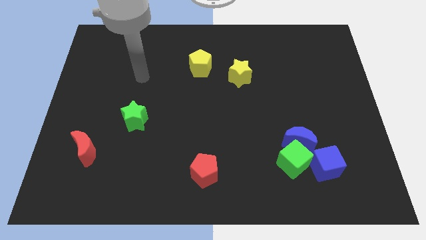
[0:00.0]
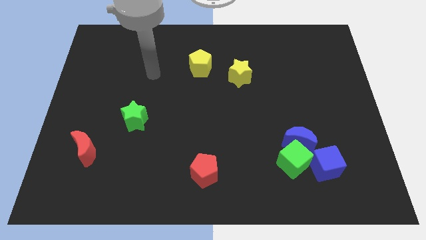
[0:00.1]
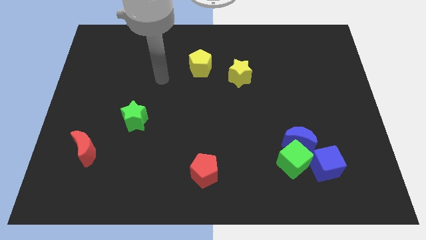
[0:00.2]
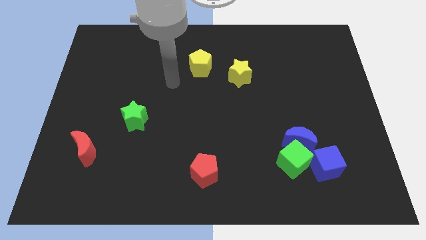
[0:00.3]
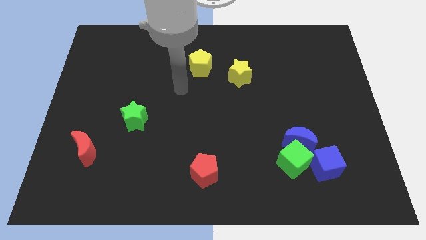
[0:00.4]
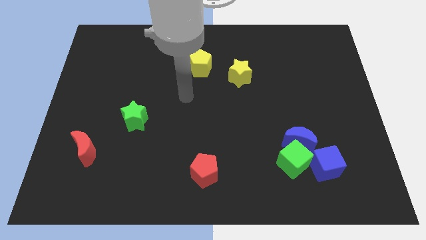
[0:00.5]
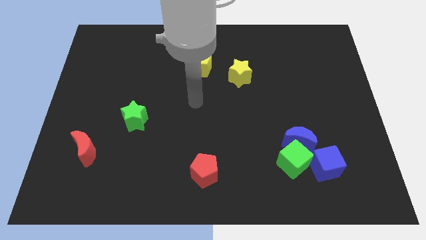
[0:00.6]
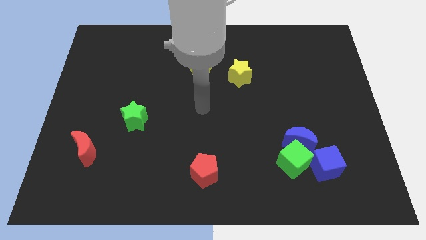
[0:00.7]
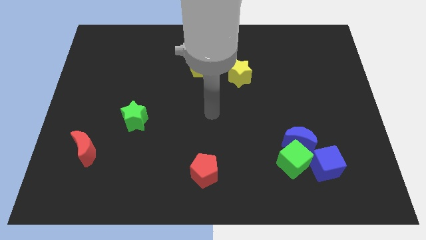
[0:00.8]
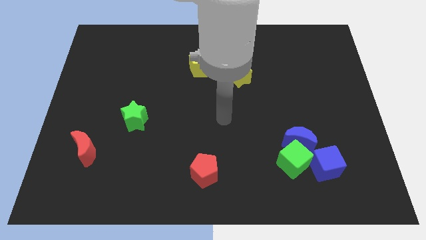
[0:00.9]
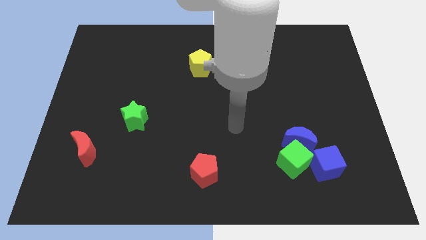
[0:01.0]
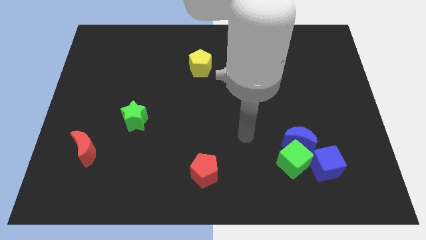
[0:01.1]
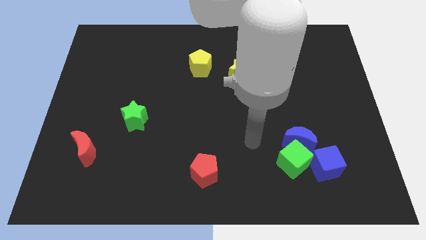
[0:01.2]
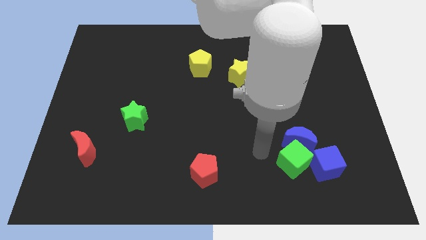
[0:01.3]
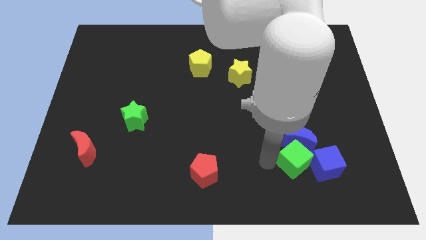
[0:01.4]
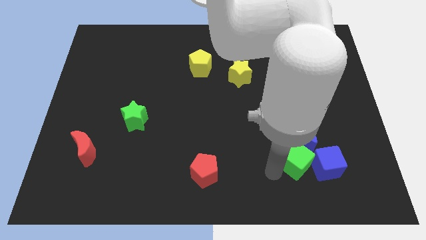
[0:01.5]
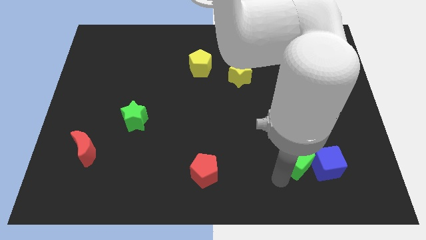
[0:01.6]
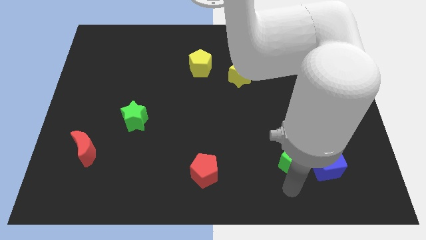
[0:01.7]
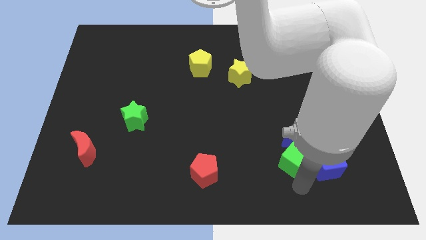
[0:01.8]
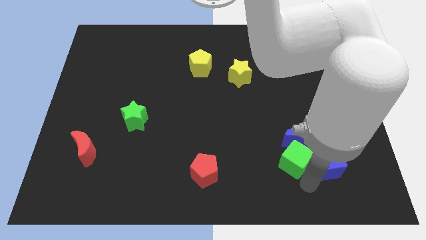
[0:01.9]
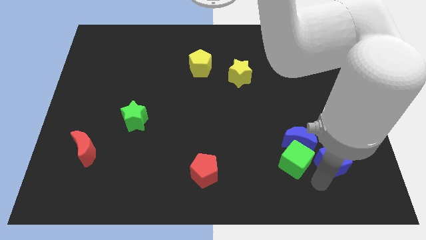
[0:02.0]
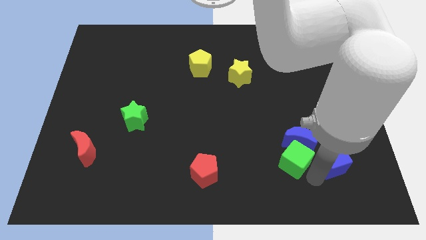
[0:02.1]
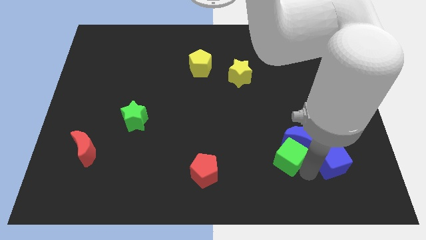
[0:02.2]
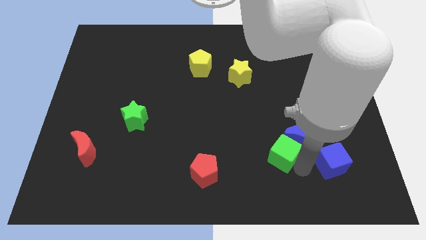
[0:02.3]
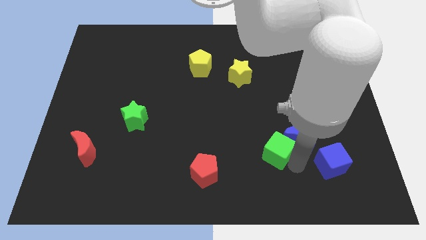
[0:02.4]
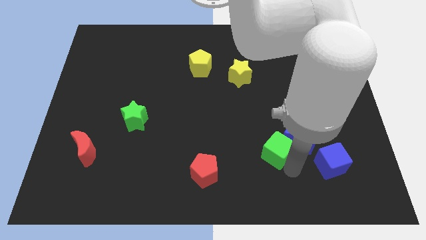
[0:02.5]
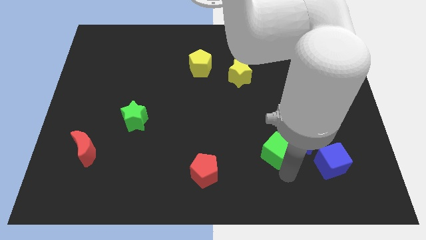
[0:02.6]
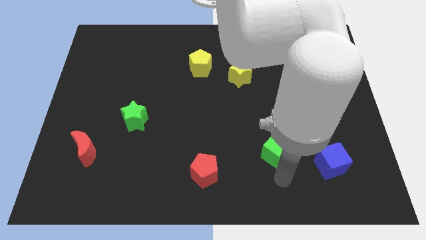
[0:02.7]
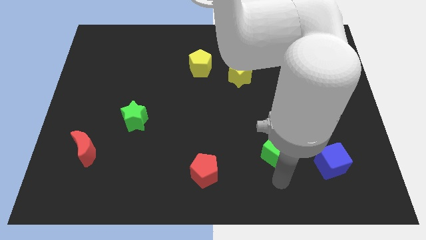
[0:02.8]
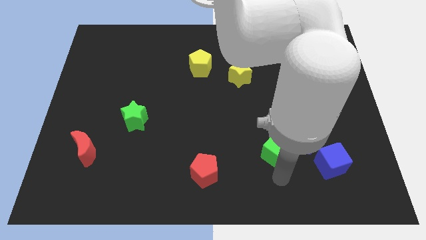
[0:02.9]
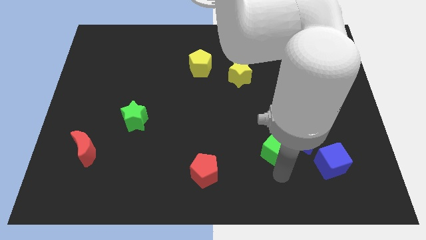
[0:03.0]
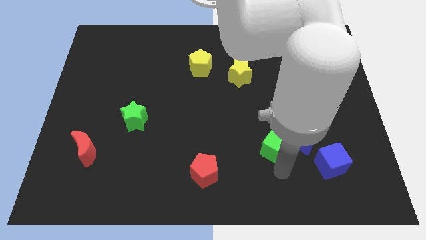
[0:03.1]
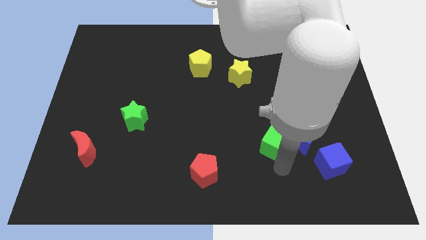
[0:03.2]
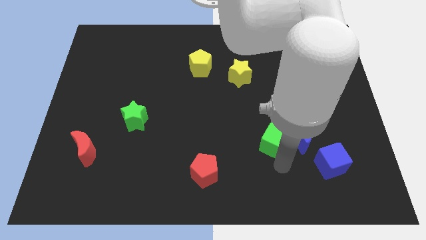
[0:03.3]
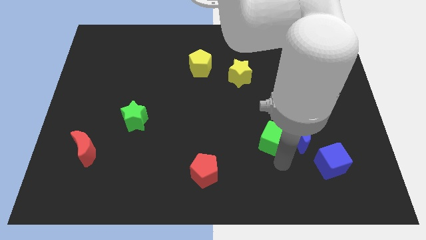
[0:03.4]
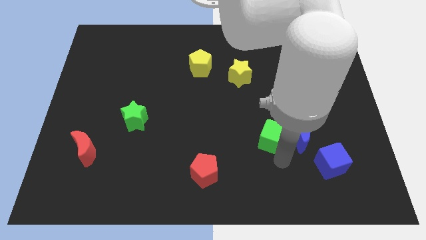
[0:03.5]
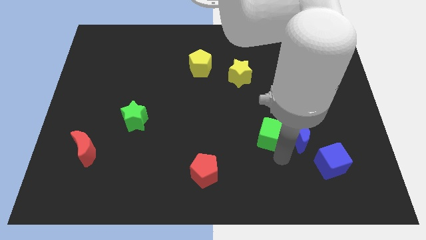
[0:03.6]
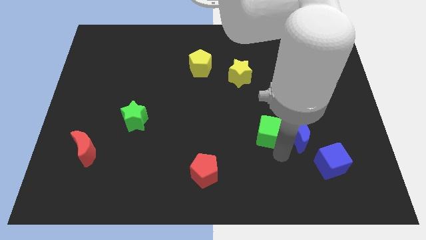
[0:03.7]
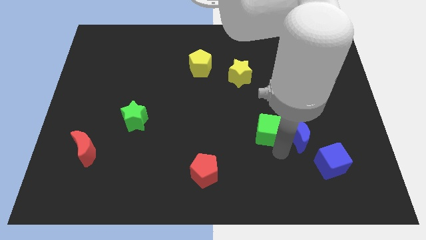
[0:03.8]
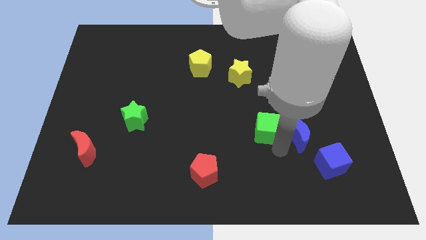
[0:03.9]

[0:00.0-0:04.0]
push the green cube somewhat upwards

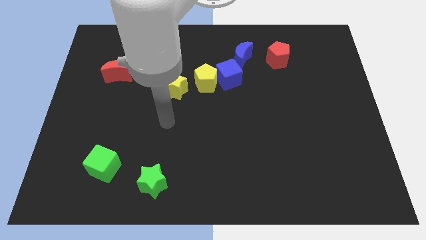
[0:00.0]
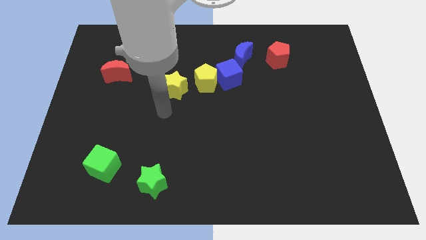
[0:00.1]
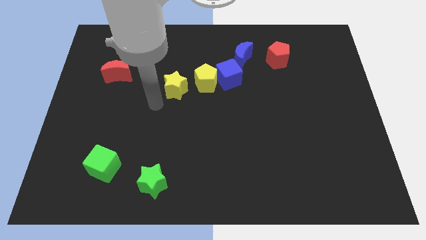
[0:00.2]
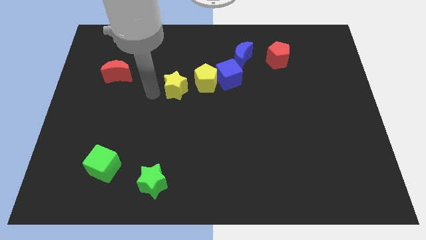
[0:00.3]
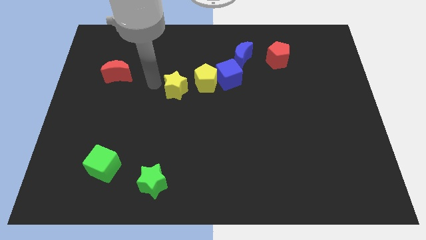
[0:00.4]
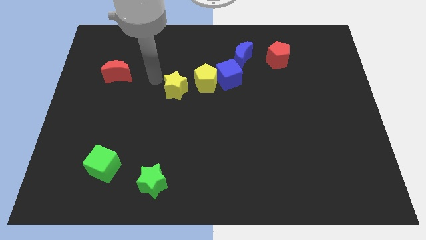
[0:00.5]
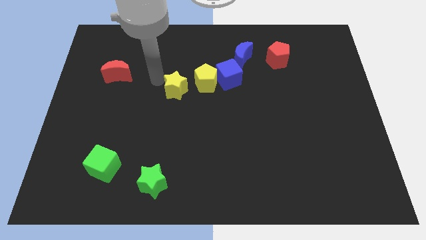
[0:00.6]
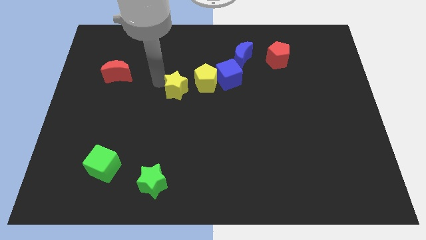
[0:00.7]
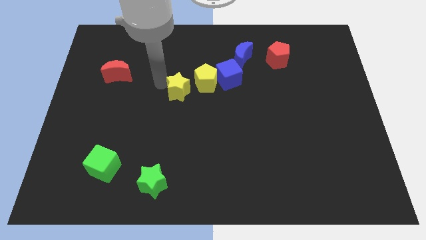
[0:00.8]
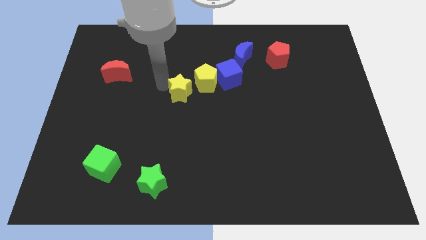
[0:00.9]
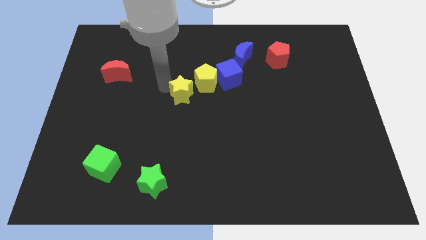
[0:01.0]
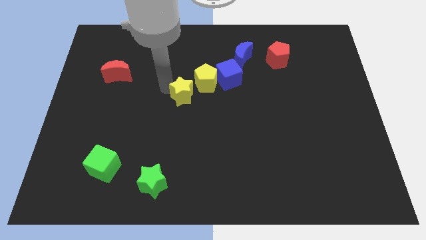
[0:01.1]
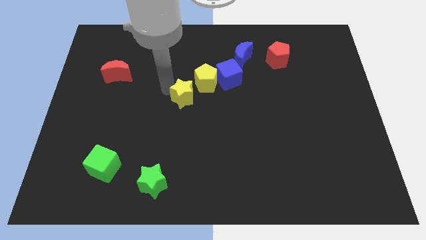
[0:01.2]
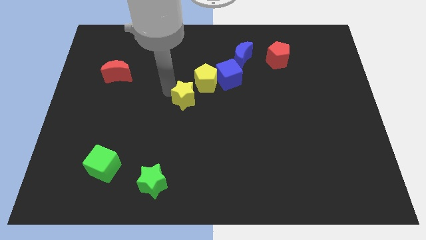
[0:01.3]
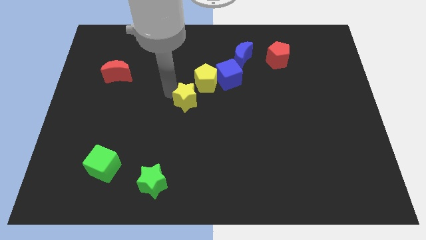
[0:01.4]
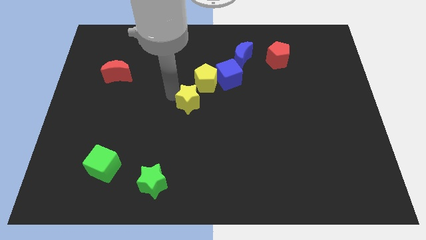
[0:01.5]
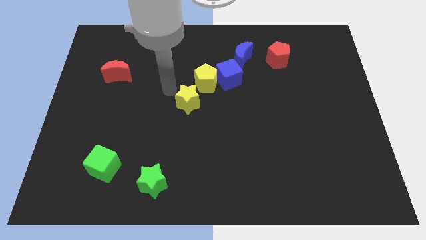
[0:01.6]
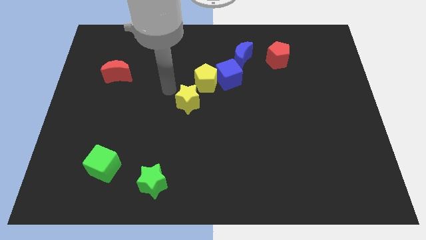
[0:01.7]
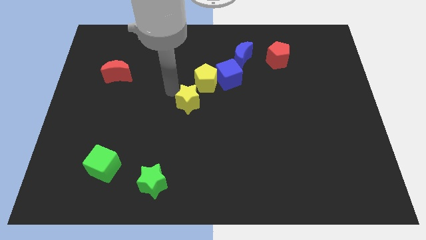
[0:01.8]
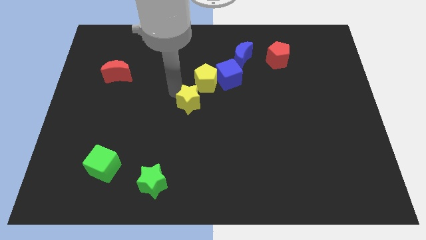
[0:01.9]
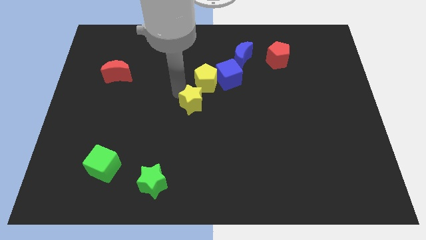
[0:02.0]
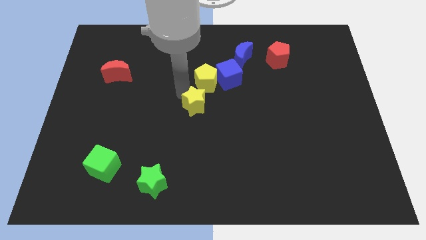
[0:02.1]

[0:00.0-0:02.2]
slide the yellow star a bit diagonally downwards and to the right

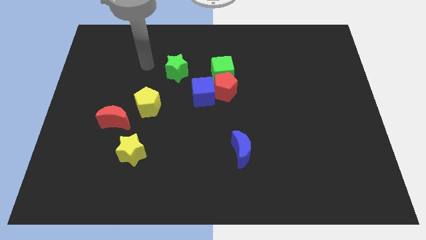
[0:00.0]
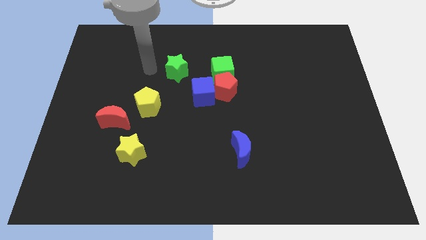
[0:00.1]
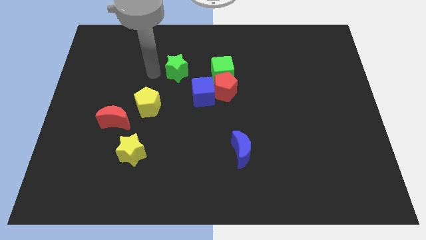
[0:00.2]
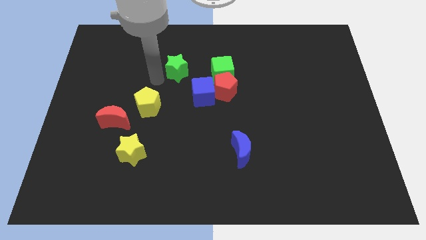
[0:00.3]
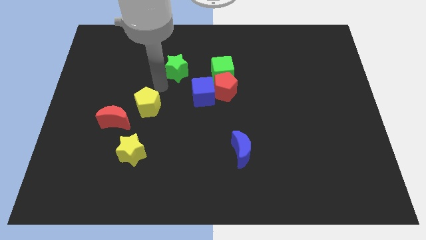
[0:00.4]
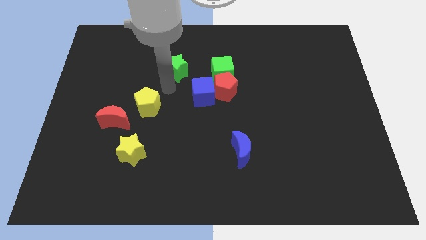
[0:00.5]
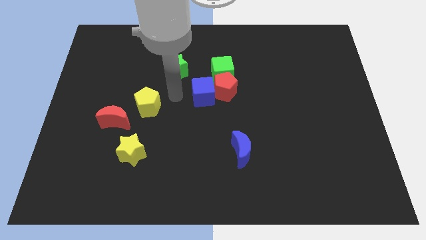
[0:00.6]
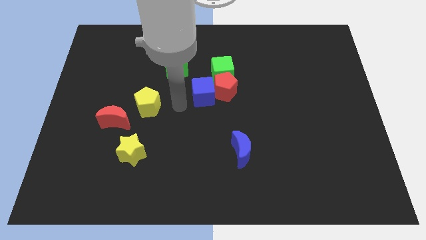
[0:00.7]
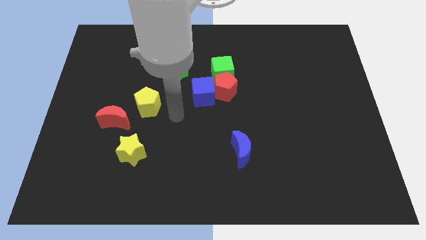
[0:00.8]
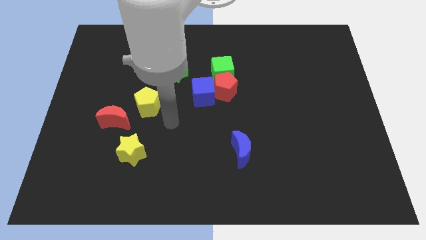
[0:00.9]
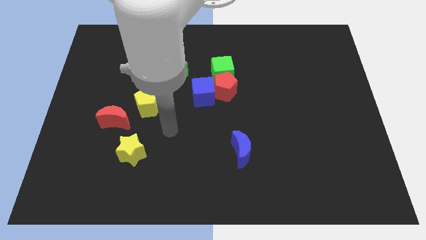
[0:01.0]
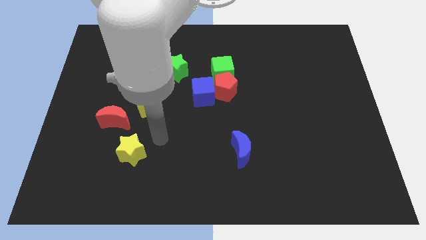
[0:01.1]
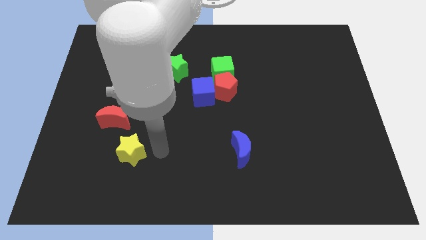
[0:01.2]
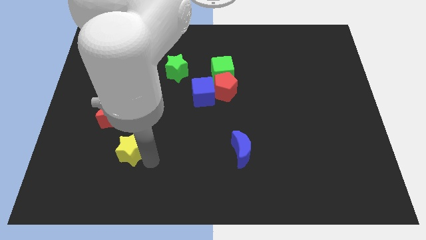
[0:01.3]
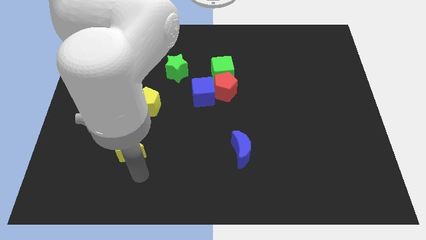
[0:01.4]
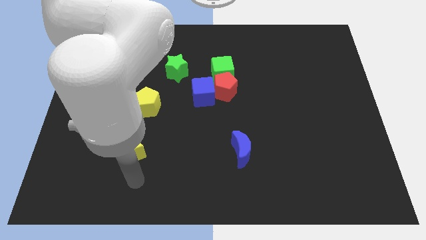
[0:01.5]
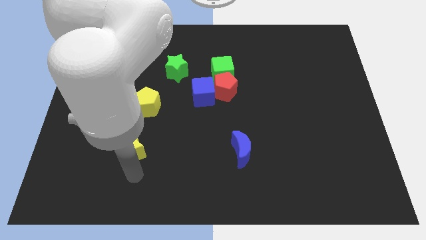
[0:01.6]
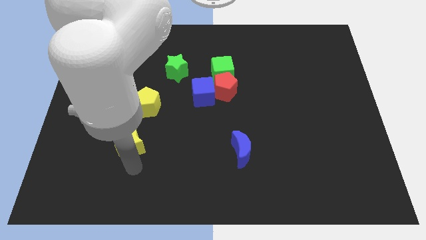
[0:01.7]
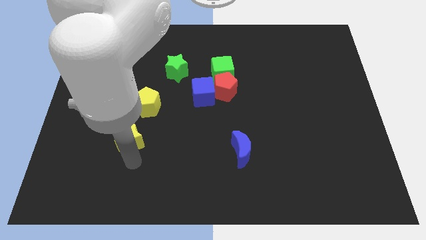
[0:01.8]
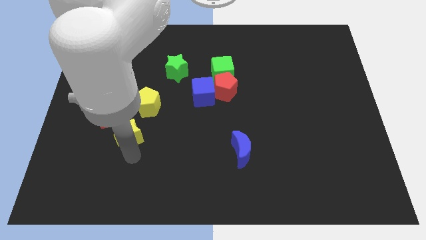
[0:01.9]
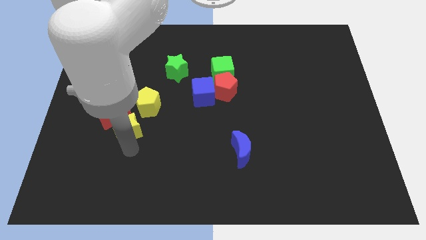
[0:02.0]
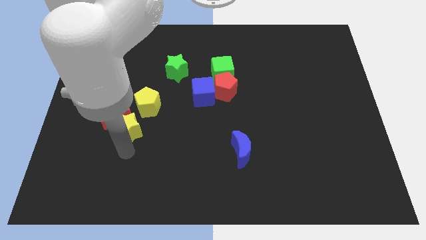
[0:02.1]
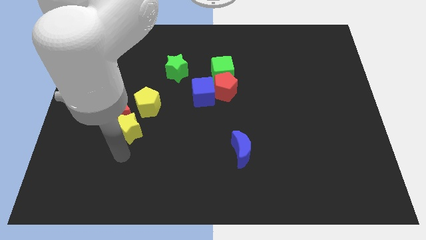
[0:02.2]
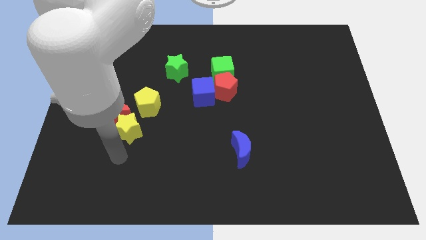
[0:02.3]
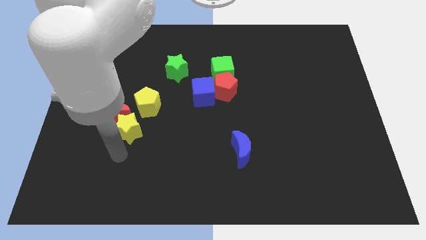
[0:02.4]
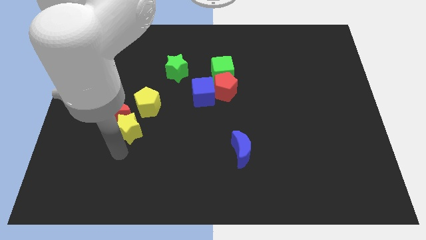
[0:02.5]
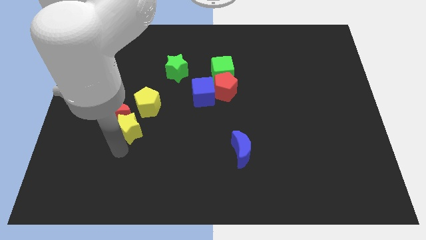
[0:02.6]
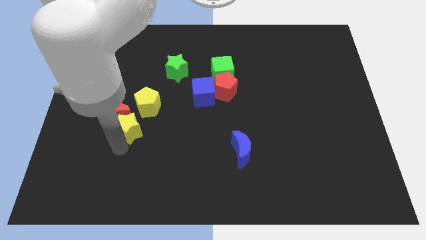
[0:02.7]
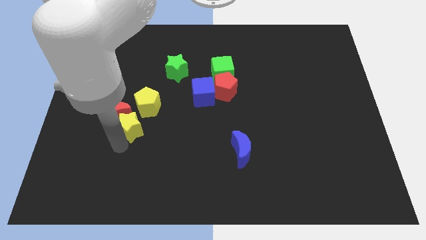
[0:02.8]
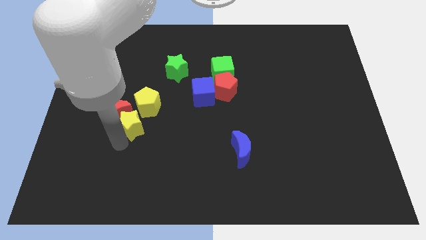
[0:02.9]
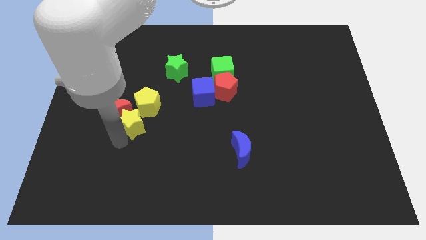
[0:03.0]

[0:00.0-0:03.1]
slide the yellow star a little up
